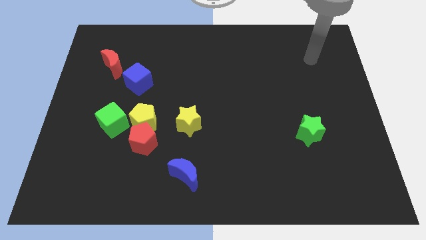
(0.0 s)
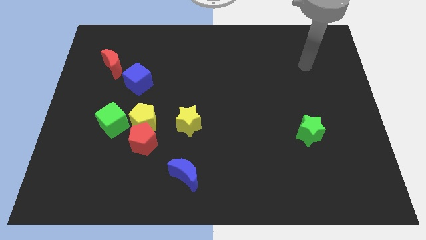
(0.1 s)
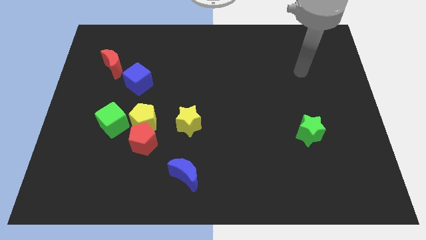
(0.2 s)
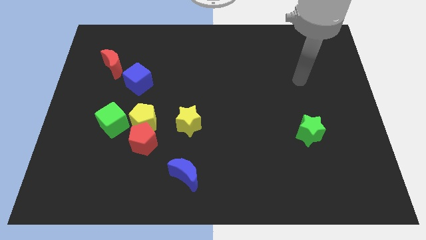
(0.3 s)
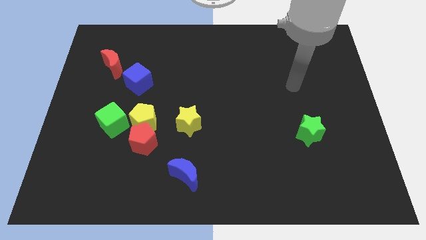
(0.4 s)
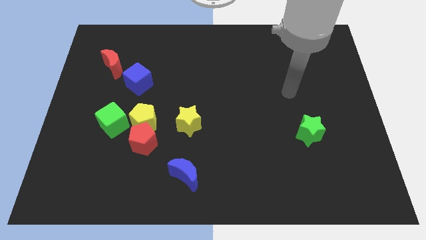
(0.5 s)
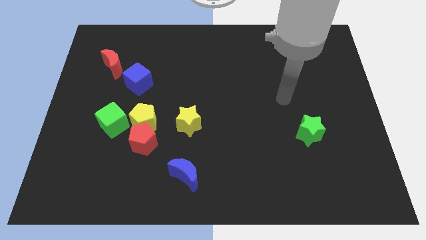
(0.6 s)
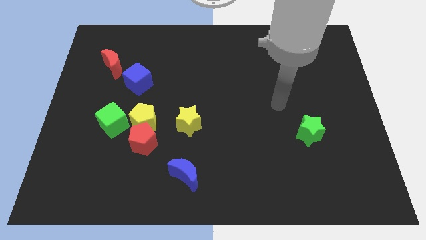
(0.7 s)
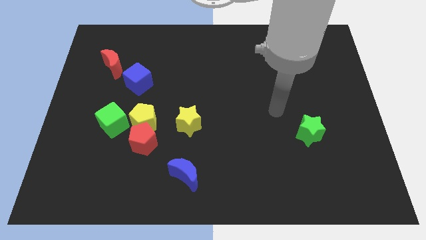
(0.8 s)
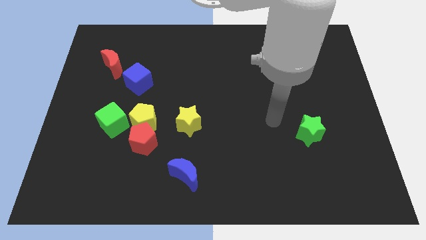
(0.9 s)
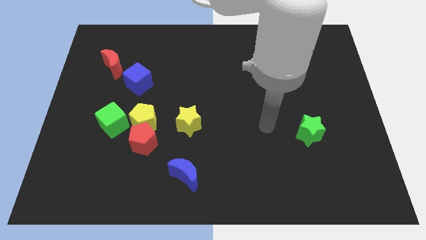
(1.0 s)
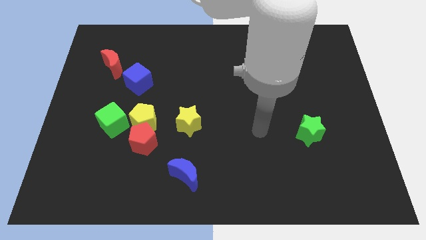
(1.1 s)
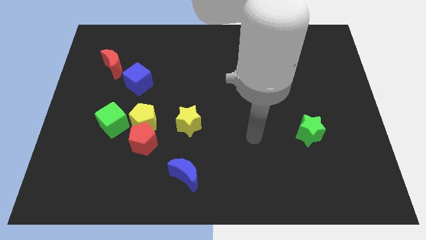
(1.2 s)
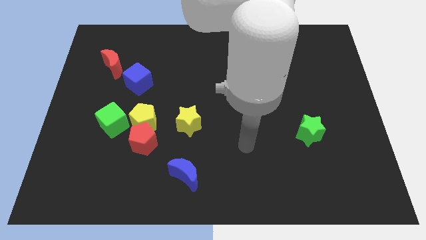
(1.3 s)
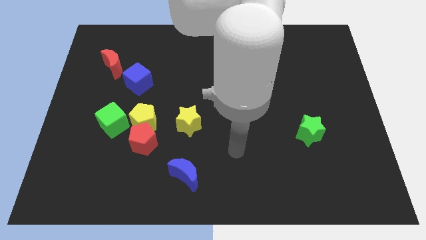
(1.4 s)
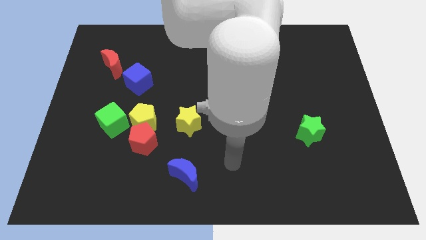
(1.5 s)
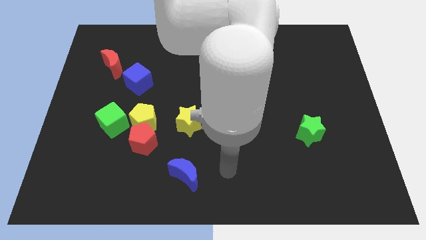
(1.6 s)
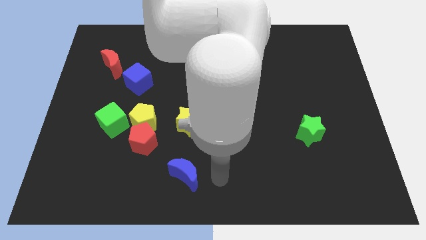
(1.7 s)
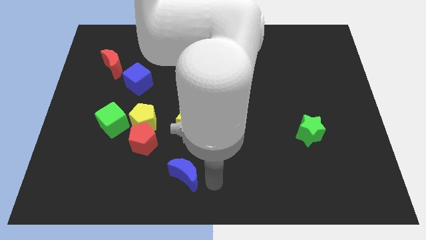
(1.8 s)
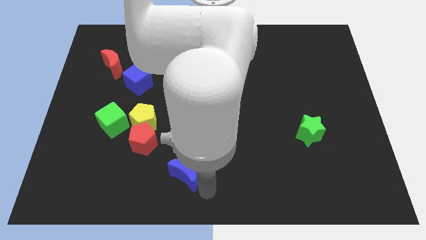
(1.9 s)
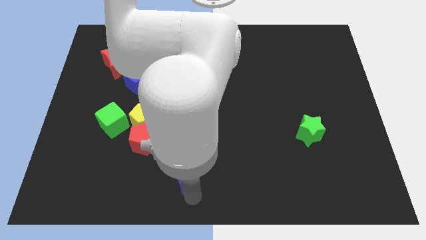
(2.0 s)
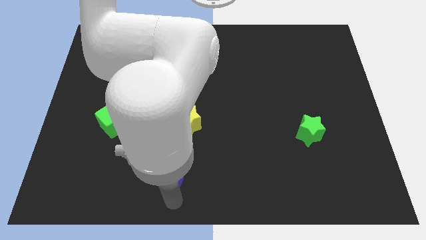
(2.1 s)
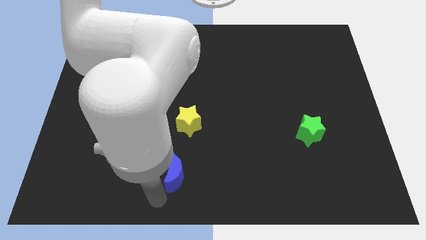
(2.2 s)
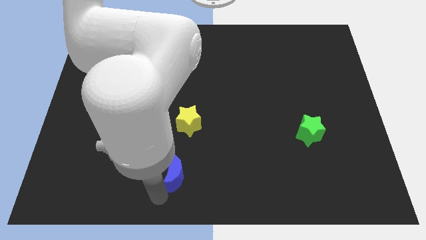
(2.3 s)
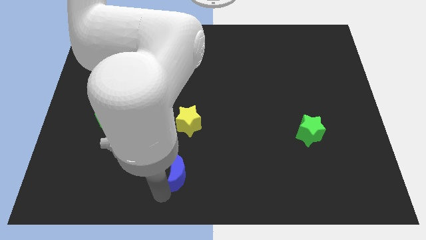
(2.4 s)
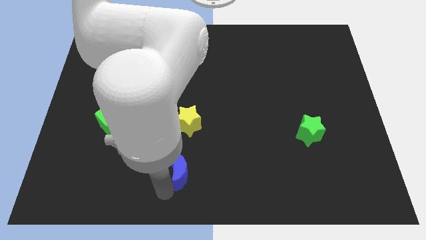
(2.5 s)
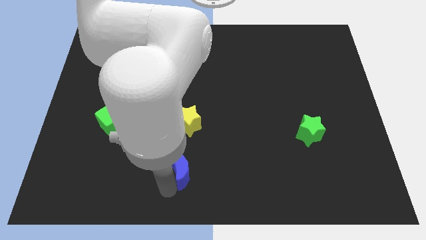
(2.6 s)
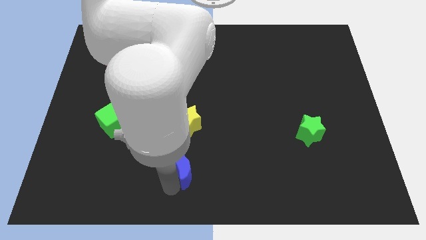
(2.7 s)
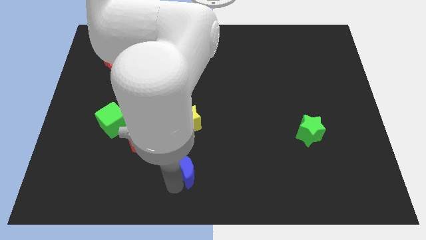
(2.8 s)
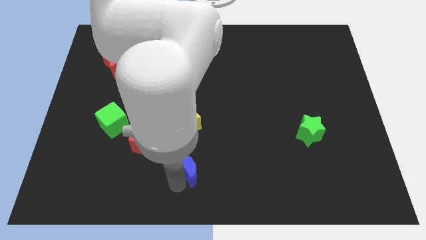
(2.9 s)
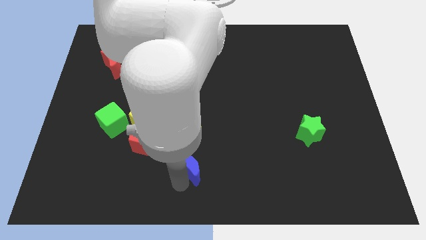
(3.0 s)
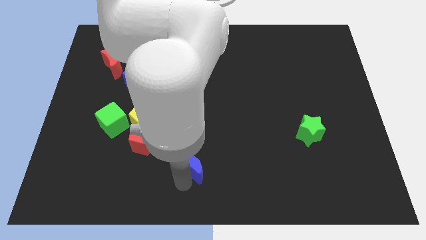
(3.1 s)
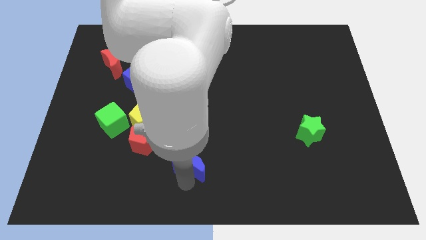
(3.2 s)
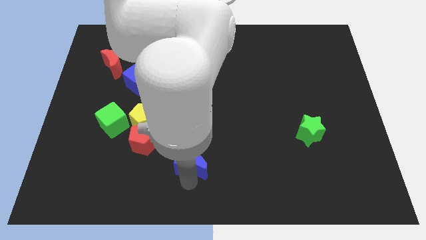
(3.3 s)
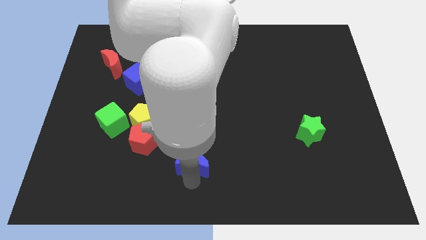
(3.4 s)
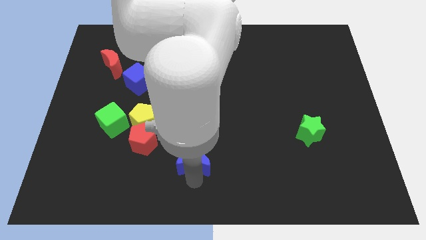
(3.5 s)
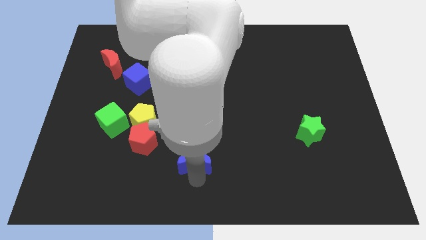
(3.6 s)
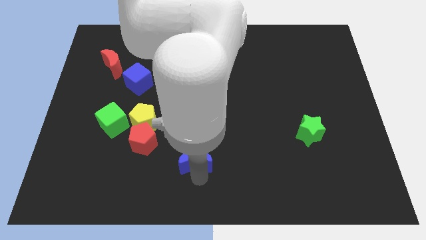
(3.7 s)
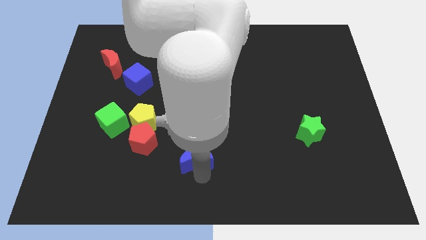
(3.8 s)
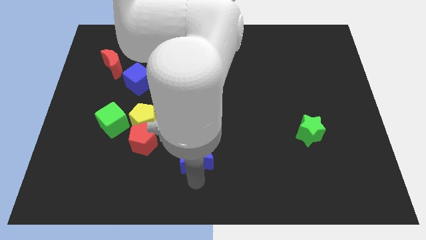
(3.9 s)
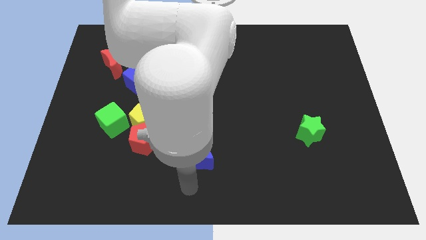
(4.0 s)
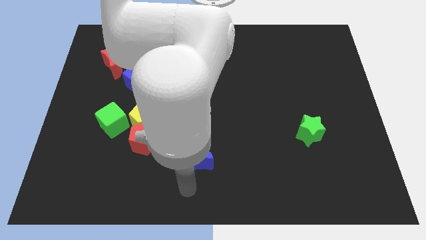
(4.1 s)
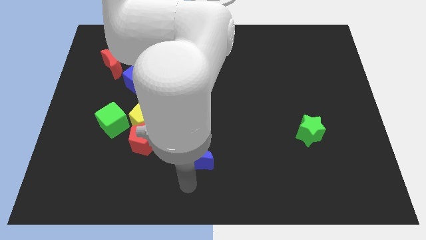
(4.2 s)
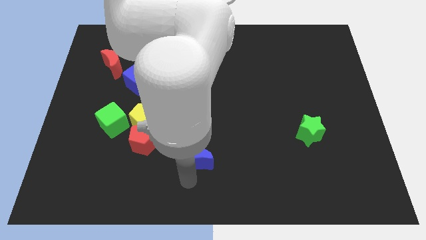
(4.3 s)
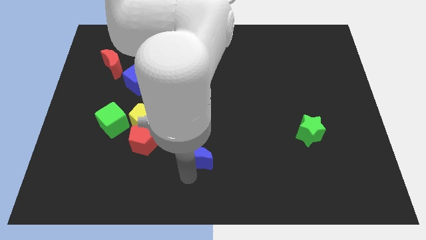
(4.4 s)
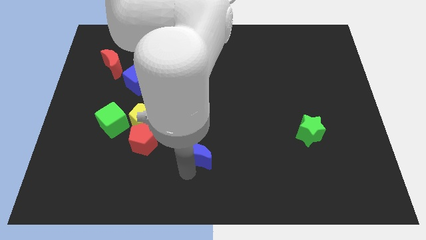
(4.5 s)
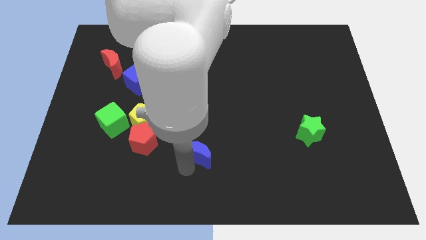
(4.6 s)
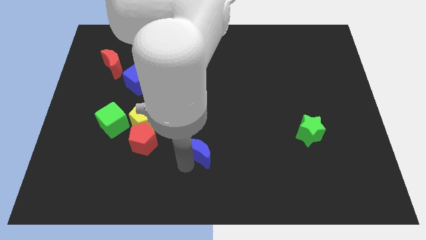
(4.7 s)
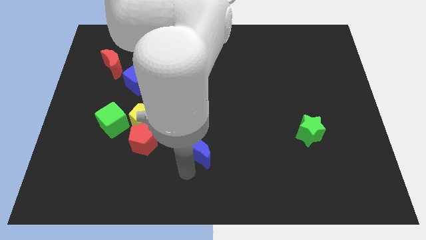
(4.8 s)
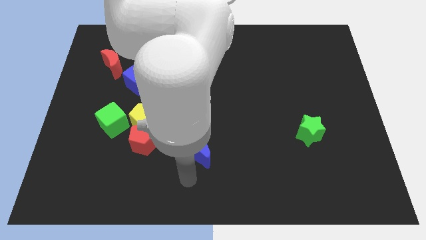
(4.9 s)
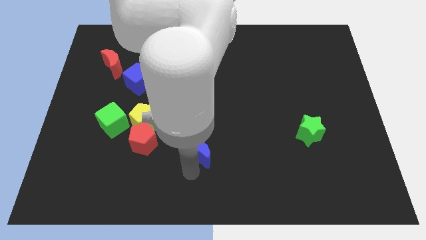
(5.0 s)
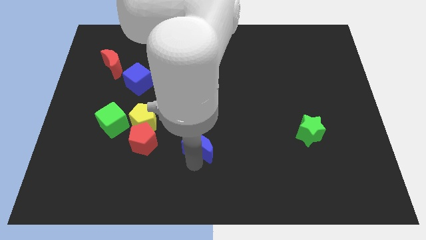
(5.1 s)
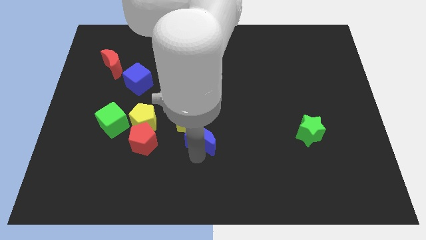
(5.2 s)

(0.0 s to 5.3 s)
push the blue moon to the middle
